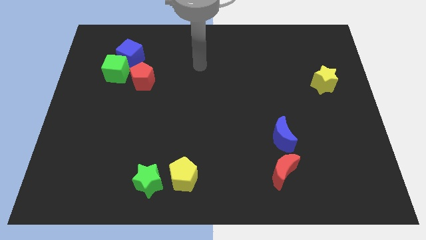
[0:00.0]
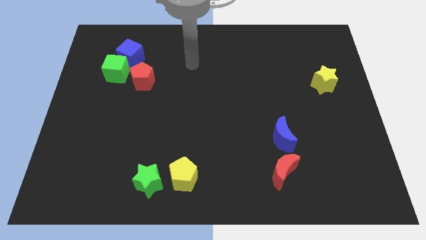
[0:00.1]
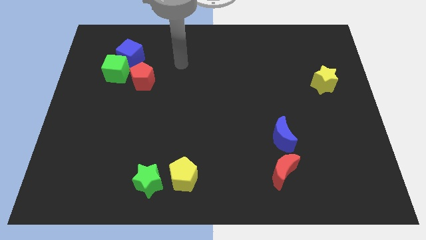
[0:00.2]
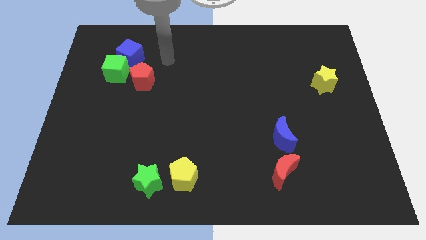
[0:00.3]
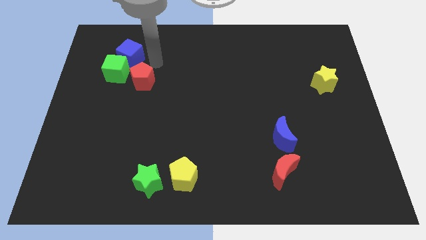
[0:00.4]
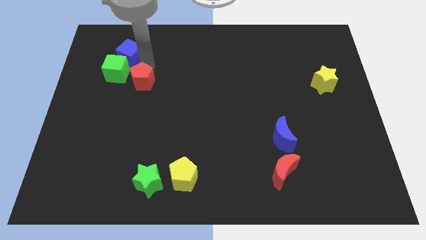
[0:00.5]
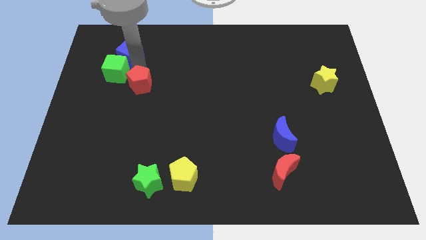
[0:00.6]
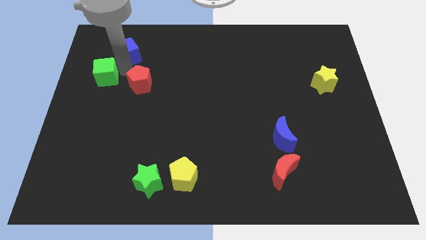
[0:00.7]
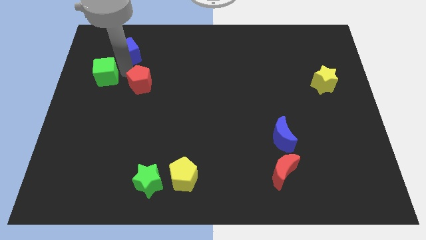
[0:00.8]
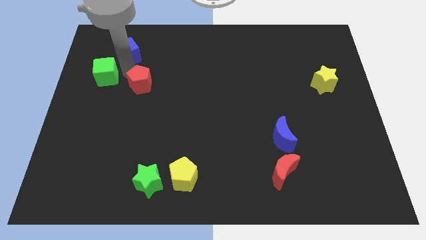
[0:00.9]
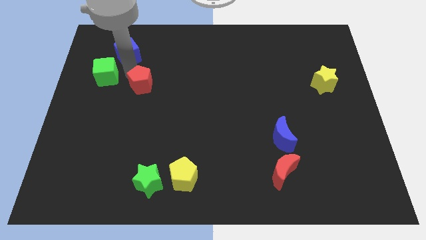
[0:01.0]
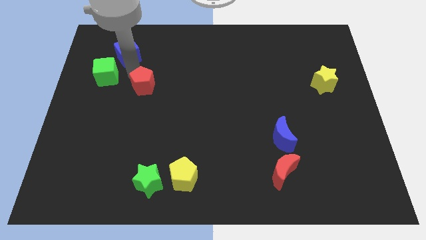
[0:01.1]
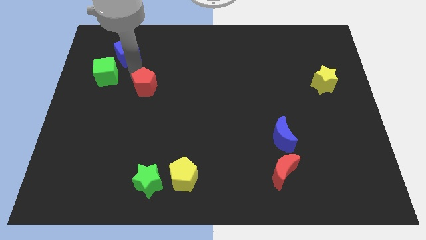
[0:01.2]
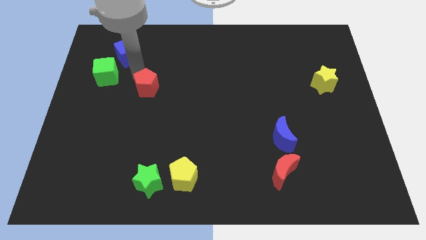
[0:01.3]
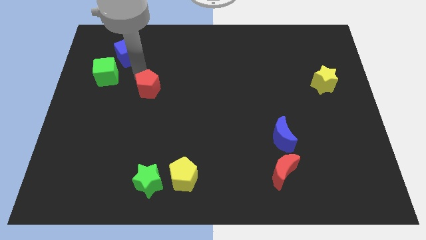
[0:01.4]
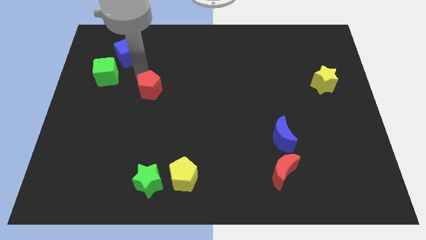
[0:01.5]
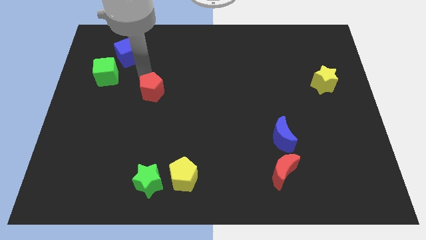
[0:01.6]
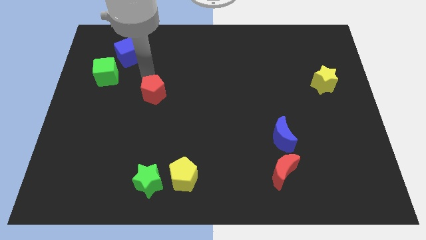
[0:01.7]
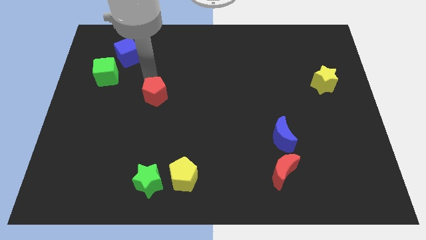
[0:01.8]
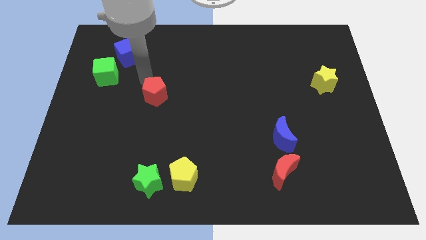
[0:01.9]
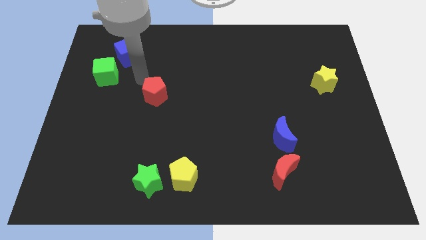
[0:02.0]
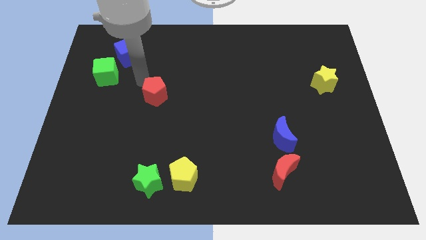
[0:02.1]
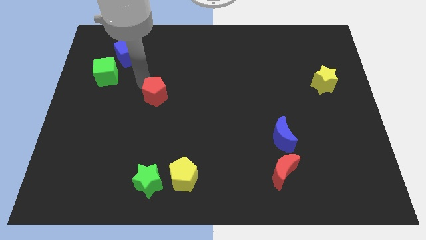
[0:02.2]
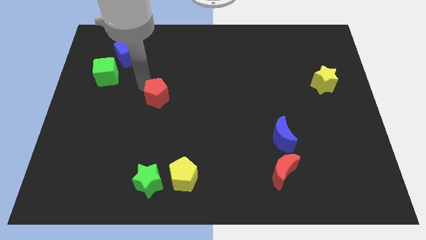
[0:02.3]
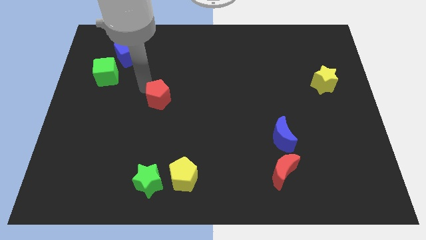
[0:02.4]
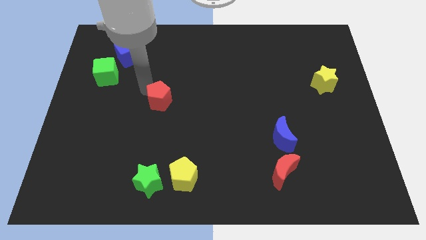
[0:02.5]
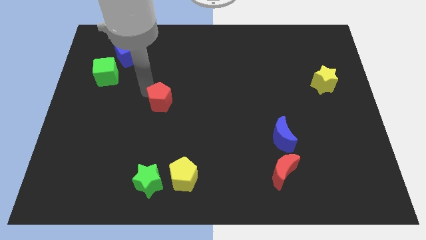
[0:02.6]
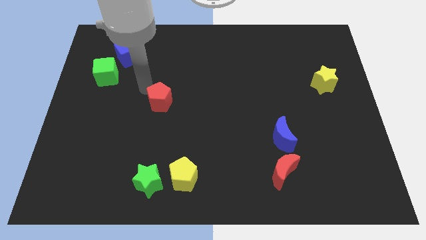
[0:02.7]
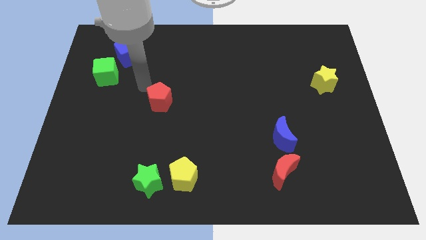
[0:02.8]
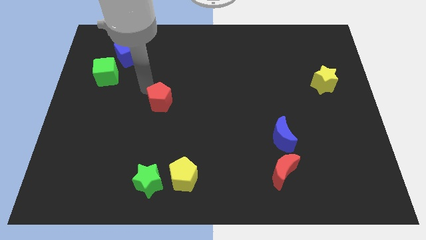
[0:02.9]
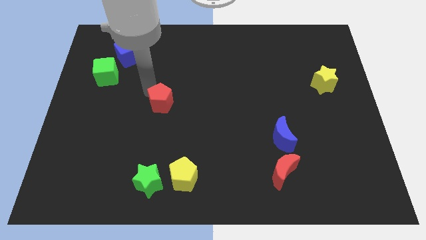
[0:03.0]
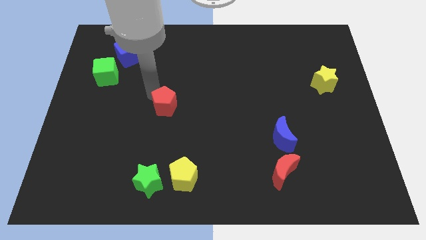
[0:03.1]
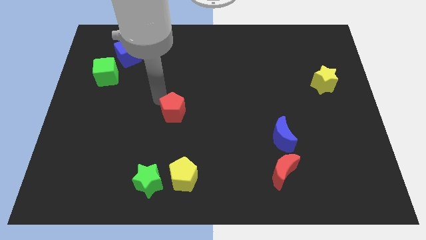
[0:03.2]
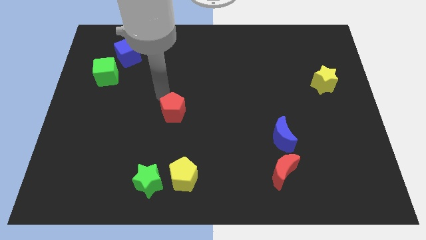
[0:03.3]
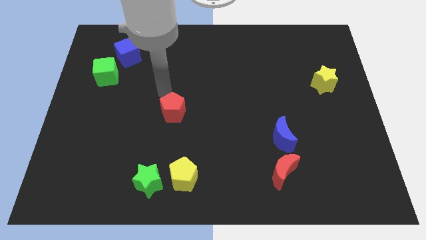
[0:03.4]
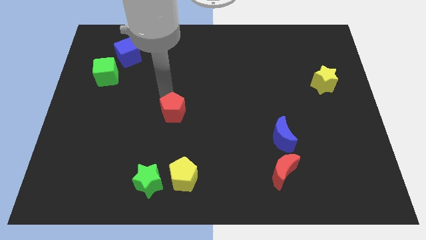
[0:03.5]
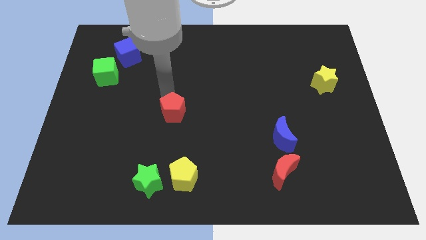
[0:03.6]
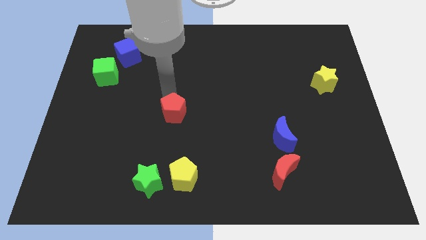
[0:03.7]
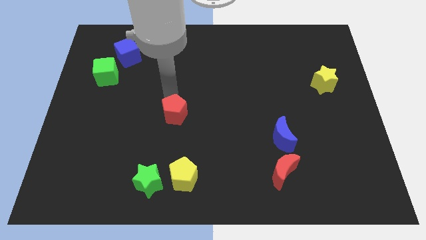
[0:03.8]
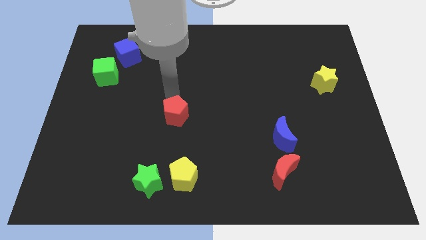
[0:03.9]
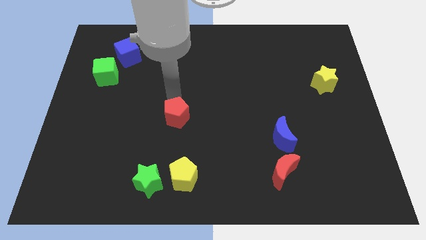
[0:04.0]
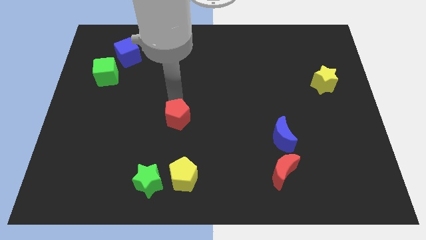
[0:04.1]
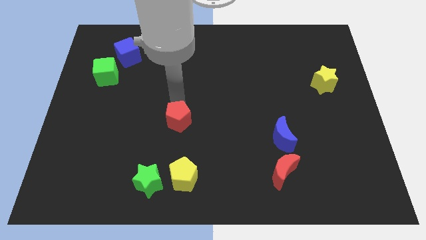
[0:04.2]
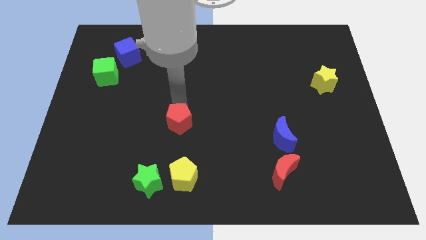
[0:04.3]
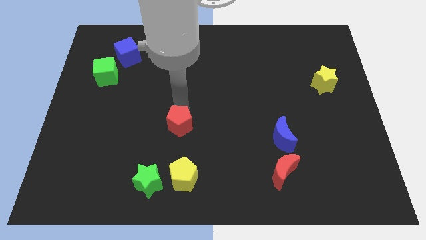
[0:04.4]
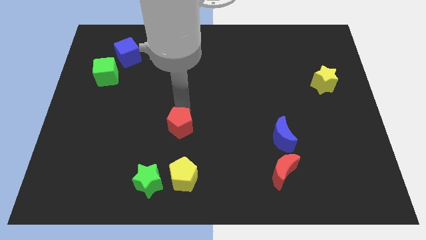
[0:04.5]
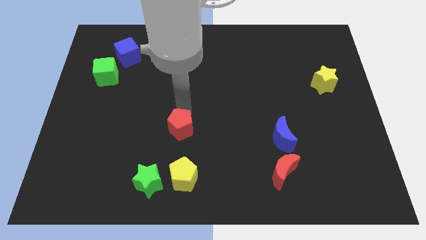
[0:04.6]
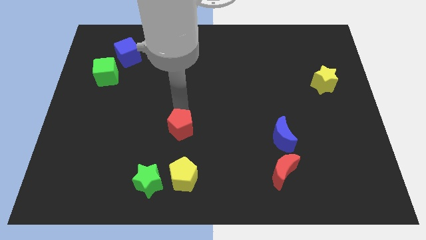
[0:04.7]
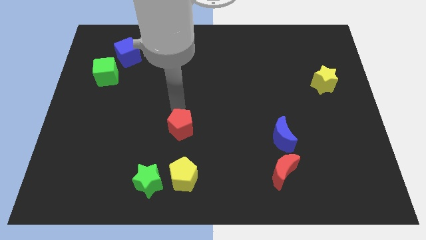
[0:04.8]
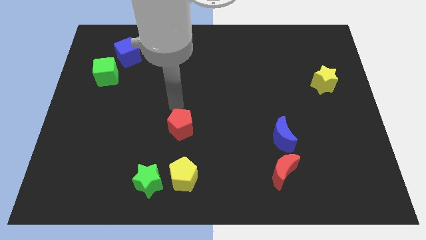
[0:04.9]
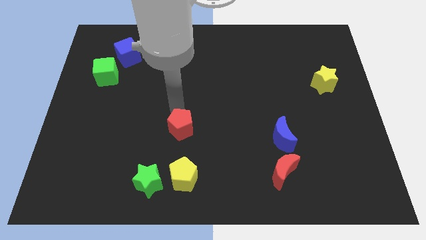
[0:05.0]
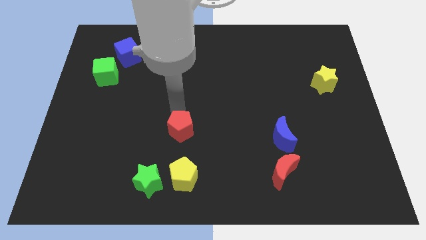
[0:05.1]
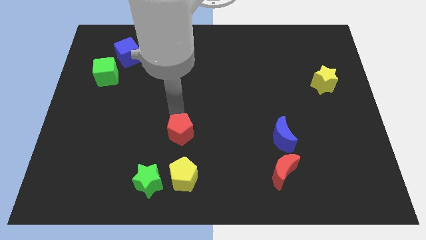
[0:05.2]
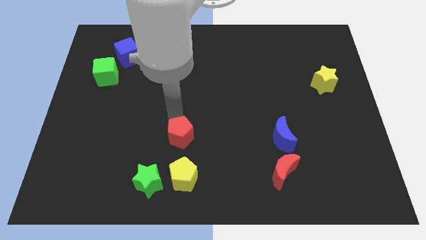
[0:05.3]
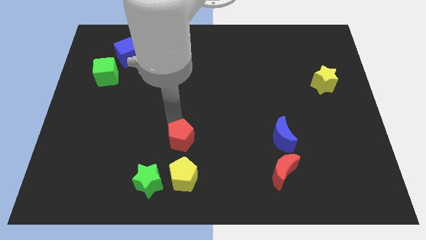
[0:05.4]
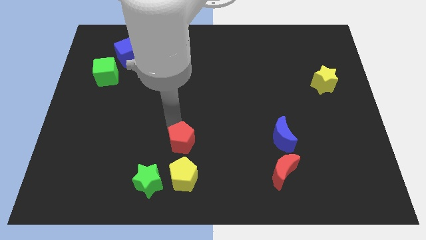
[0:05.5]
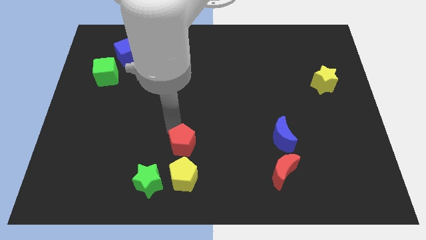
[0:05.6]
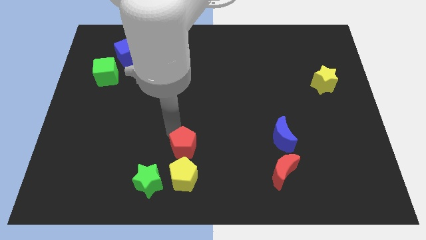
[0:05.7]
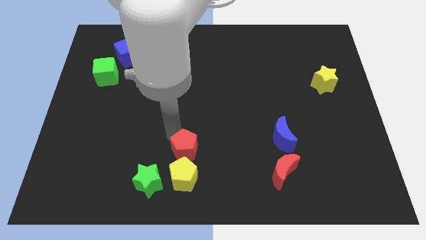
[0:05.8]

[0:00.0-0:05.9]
push the red pentagon to the top right side of the yellow pentagon
